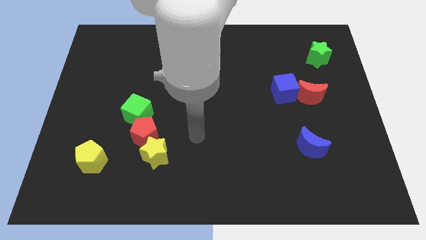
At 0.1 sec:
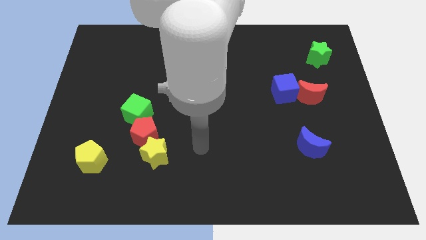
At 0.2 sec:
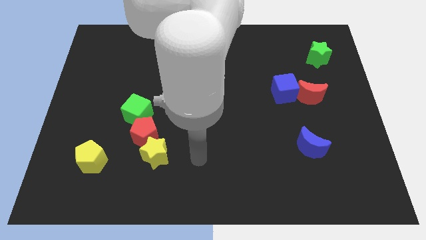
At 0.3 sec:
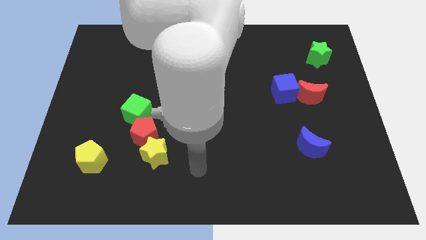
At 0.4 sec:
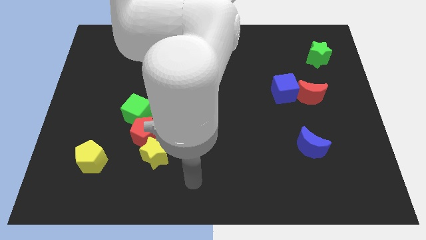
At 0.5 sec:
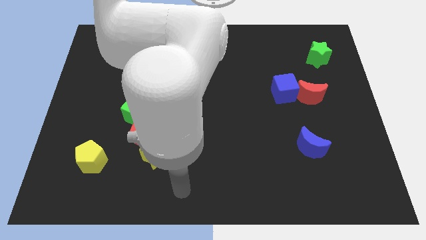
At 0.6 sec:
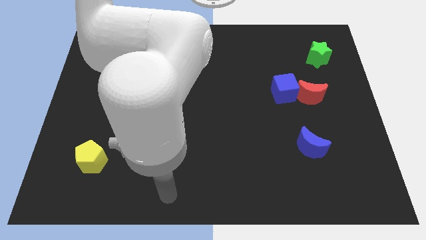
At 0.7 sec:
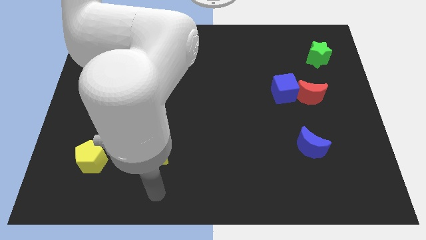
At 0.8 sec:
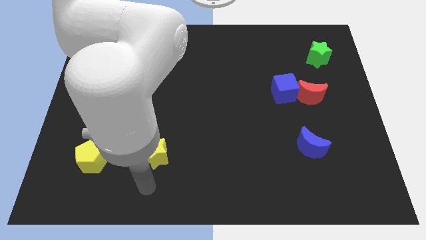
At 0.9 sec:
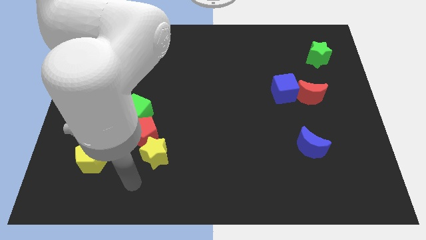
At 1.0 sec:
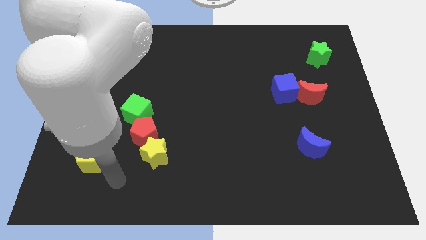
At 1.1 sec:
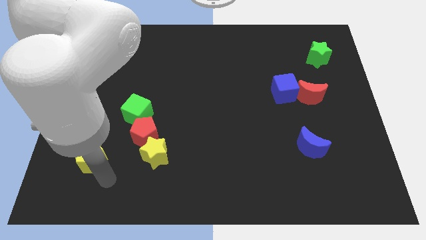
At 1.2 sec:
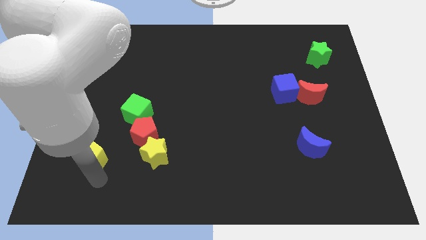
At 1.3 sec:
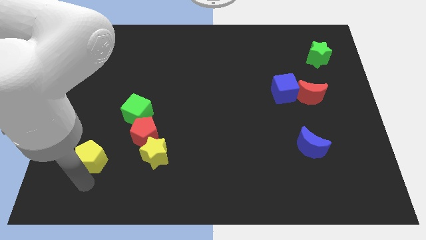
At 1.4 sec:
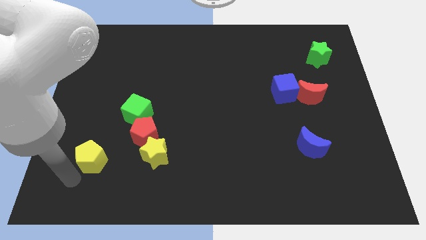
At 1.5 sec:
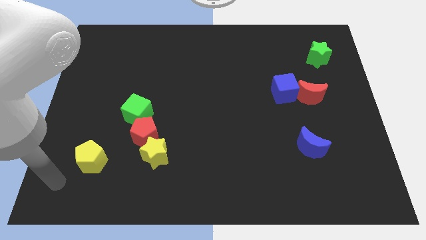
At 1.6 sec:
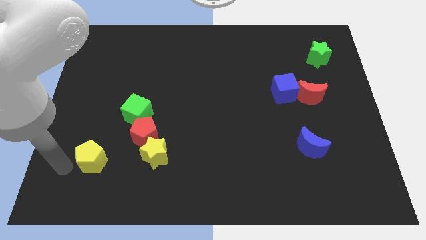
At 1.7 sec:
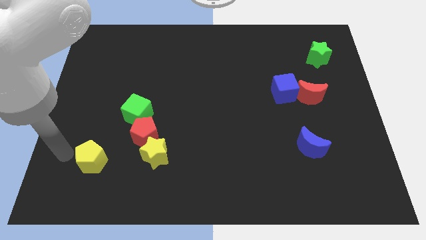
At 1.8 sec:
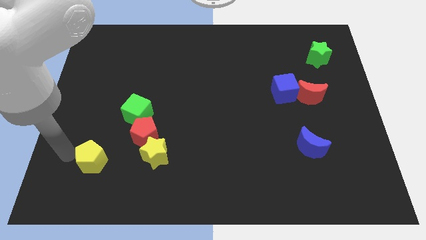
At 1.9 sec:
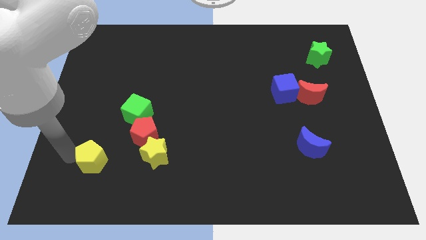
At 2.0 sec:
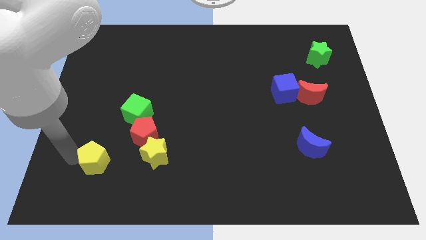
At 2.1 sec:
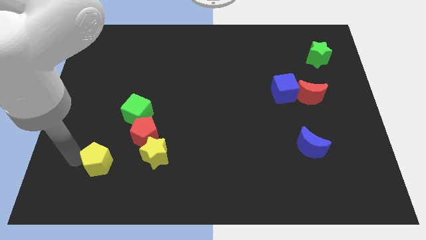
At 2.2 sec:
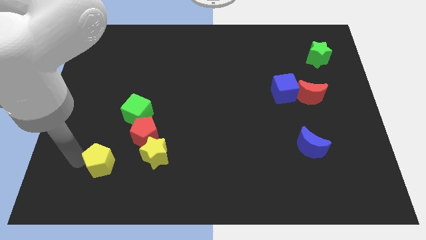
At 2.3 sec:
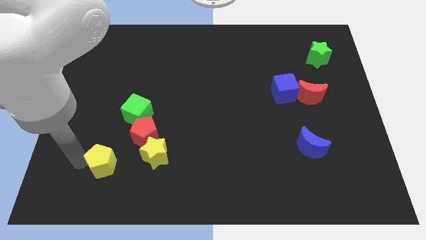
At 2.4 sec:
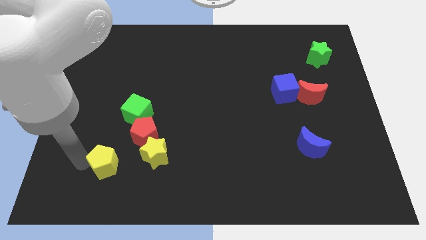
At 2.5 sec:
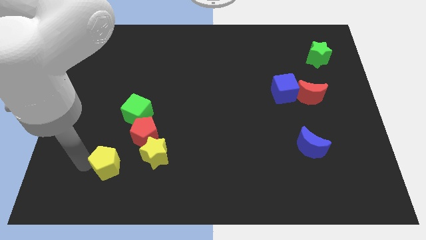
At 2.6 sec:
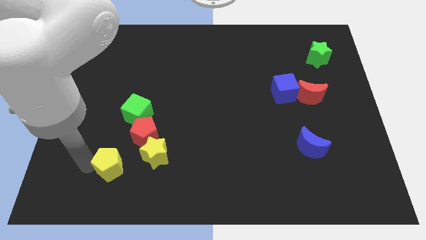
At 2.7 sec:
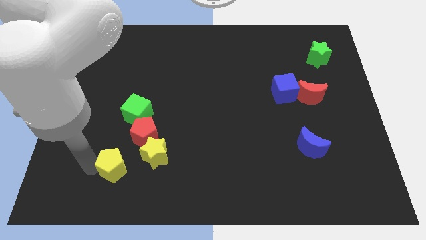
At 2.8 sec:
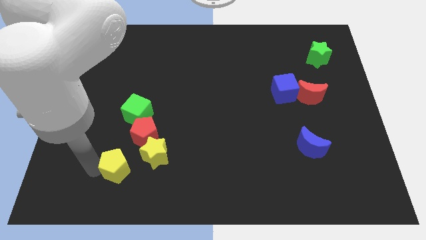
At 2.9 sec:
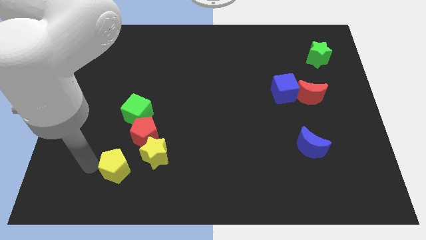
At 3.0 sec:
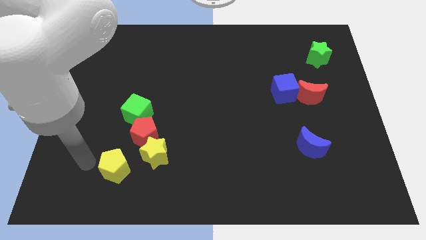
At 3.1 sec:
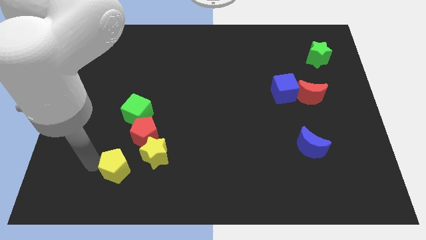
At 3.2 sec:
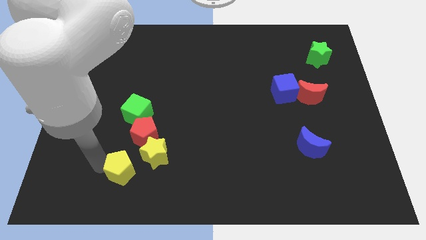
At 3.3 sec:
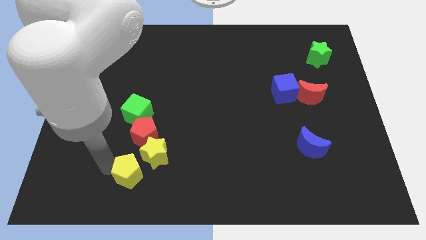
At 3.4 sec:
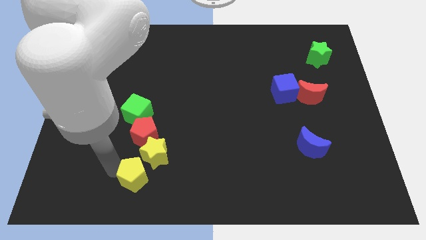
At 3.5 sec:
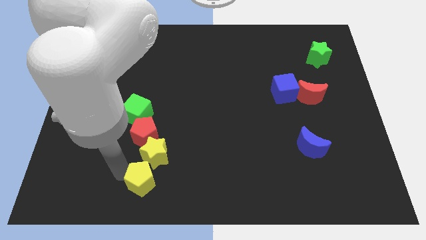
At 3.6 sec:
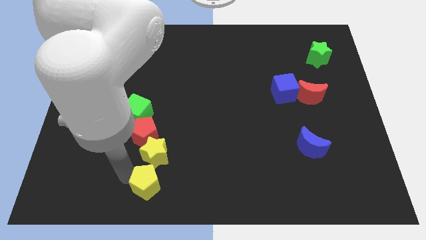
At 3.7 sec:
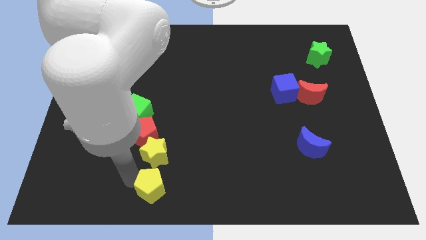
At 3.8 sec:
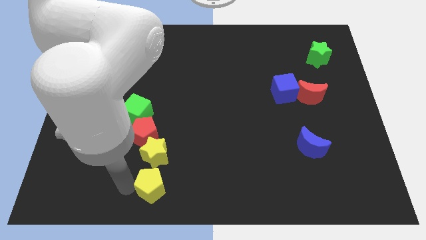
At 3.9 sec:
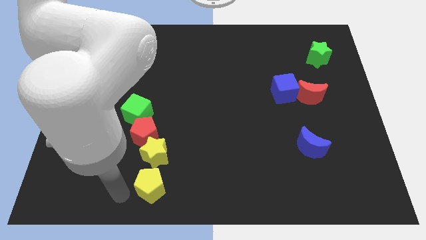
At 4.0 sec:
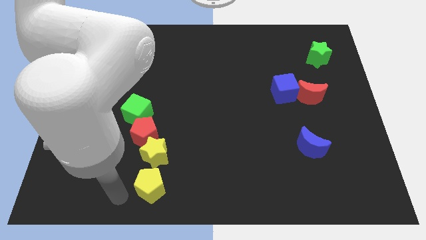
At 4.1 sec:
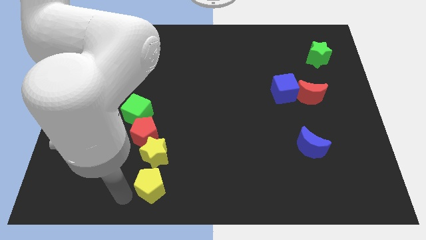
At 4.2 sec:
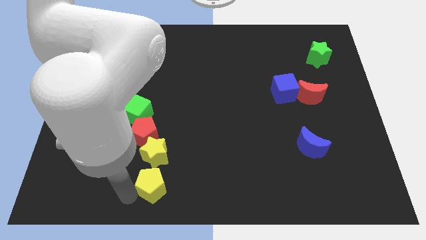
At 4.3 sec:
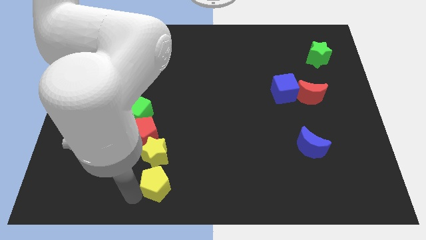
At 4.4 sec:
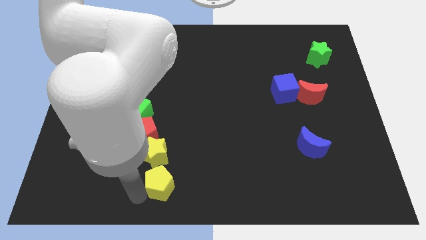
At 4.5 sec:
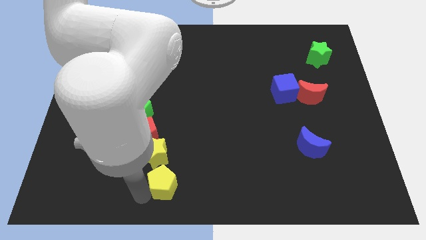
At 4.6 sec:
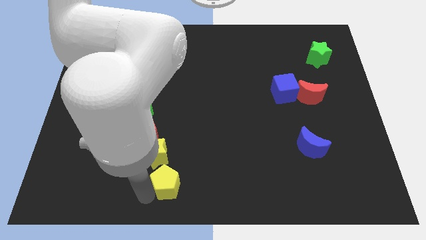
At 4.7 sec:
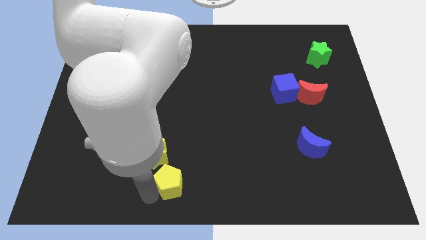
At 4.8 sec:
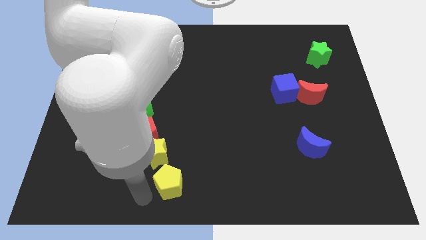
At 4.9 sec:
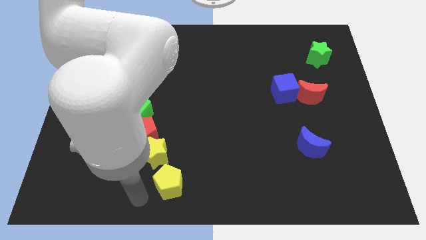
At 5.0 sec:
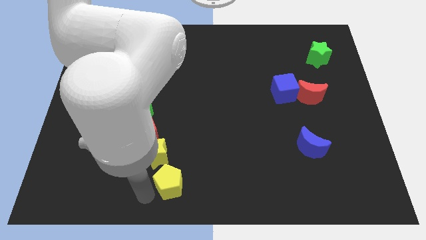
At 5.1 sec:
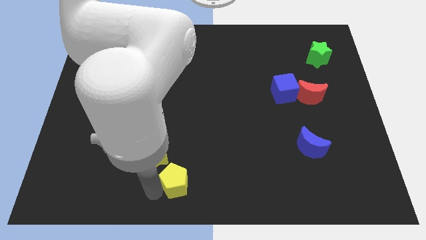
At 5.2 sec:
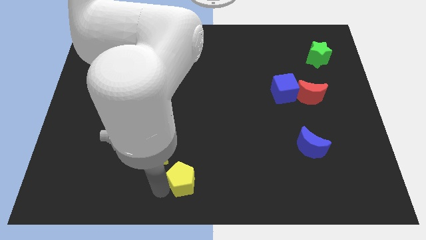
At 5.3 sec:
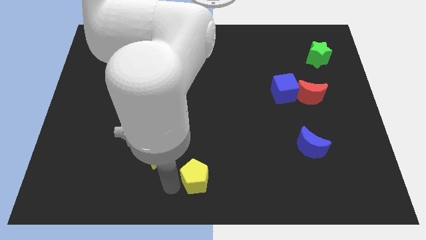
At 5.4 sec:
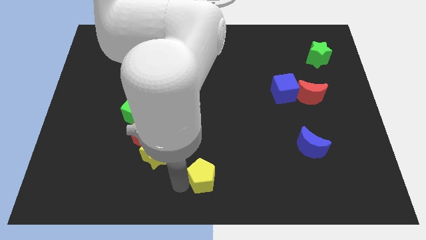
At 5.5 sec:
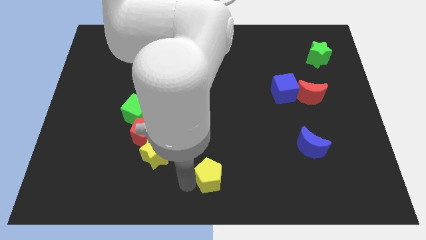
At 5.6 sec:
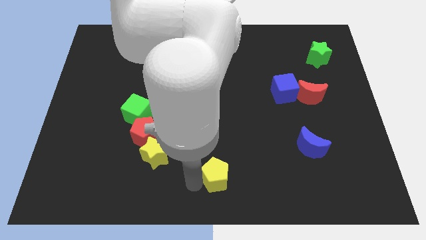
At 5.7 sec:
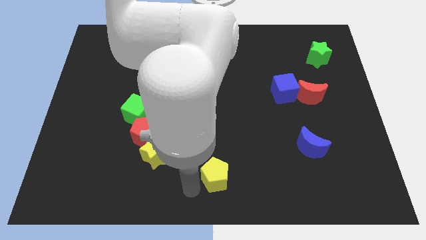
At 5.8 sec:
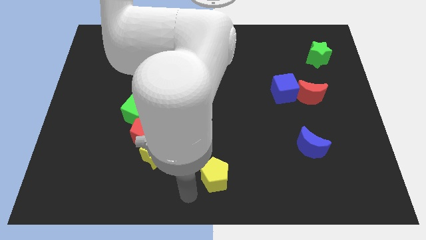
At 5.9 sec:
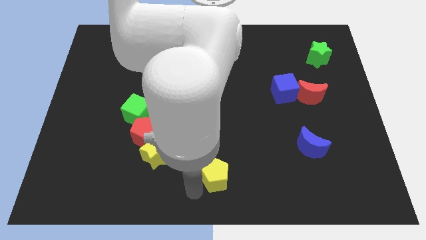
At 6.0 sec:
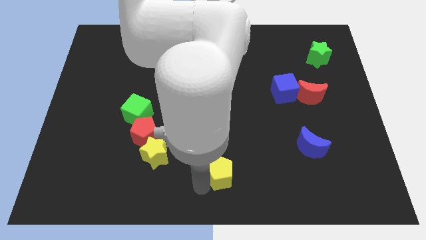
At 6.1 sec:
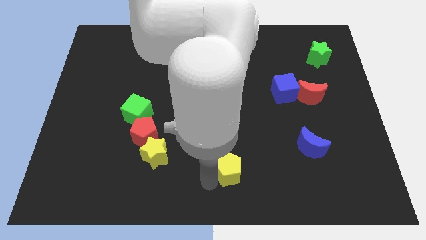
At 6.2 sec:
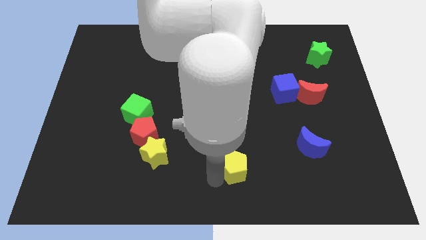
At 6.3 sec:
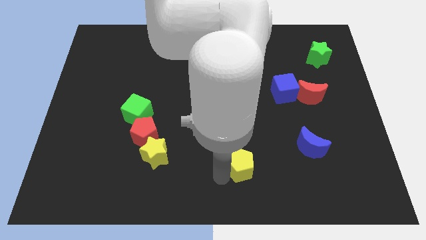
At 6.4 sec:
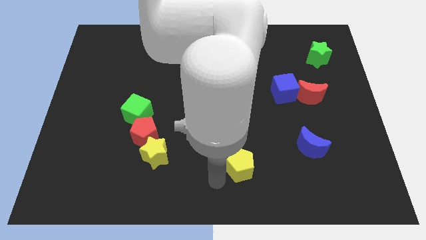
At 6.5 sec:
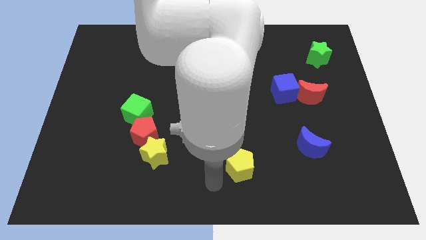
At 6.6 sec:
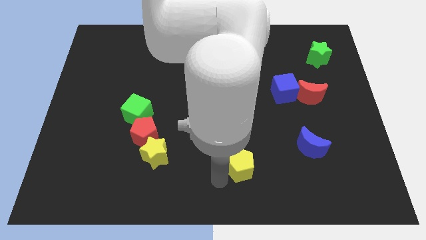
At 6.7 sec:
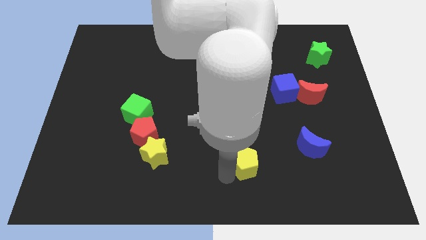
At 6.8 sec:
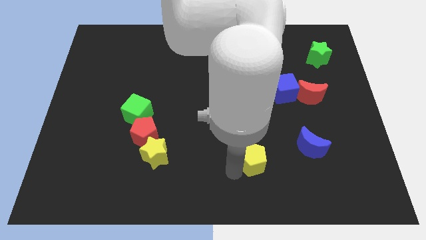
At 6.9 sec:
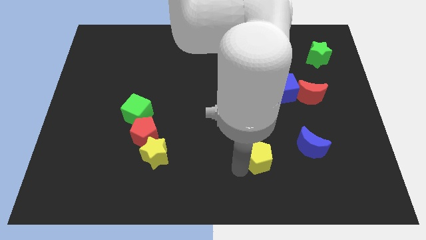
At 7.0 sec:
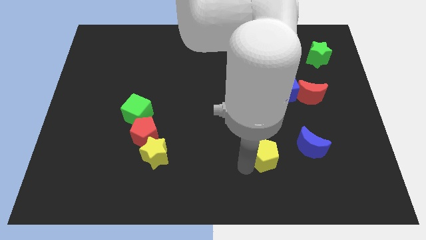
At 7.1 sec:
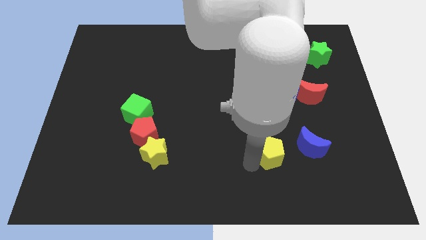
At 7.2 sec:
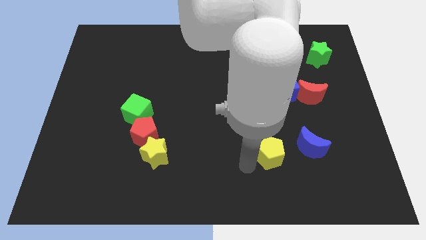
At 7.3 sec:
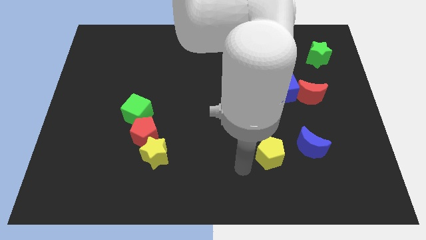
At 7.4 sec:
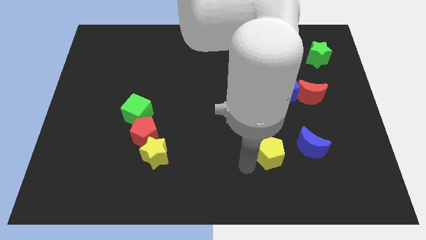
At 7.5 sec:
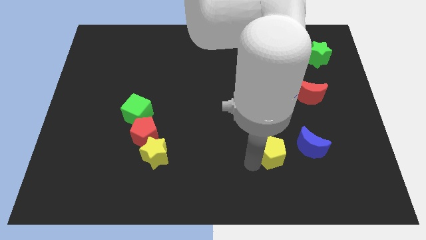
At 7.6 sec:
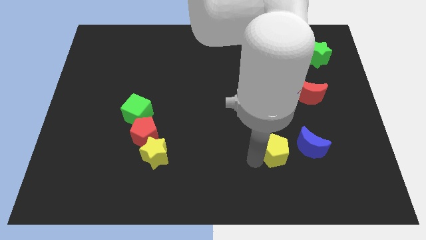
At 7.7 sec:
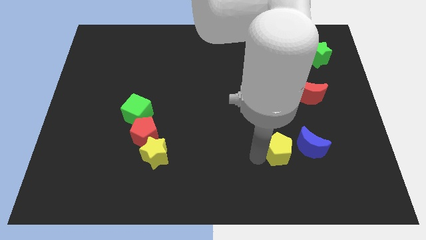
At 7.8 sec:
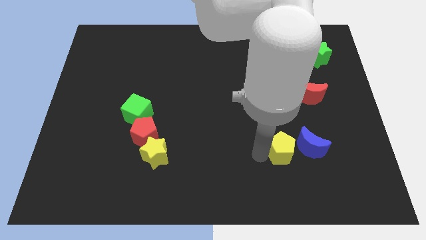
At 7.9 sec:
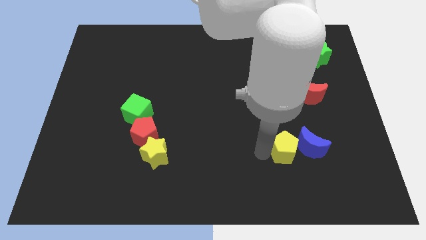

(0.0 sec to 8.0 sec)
move the yellow pentagon close to the blue moon
